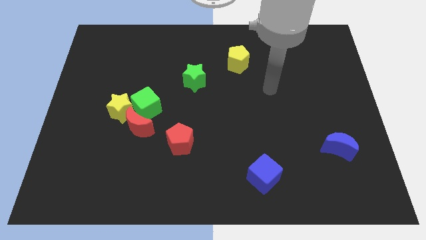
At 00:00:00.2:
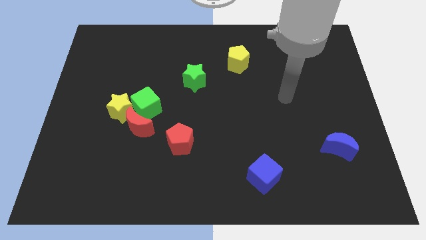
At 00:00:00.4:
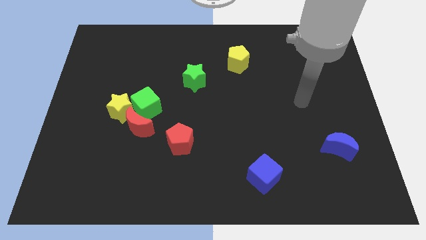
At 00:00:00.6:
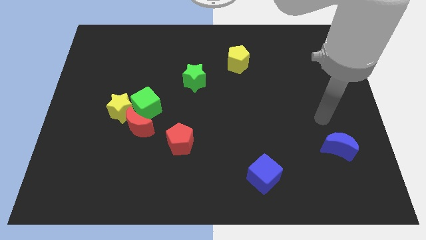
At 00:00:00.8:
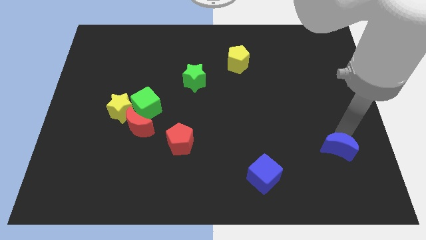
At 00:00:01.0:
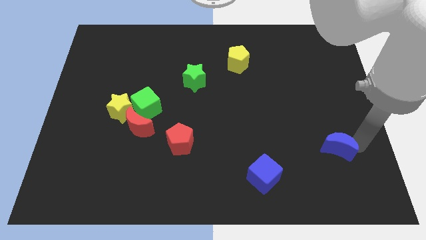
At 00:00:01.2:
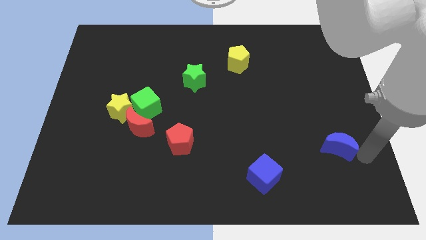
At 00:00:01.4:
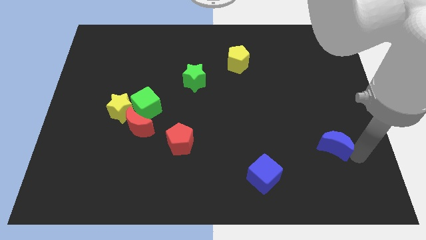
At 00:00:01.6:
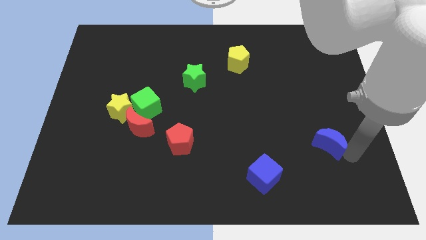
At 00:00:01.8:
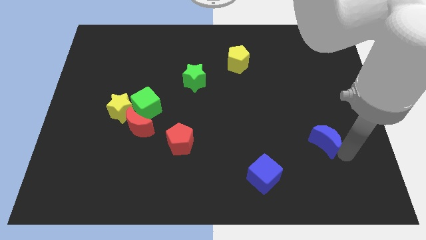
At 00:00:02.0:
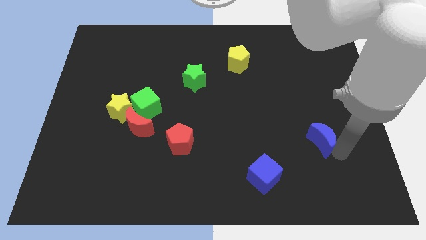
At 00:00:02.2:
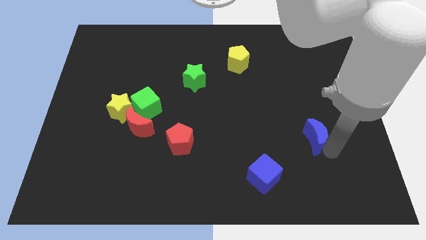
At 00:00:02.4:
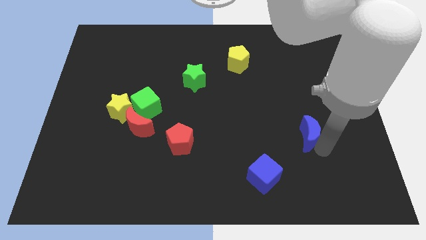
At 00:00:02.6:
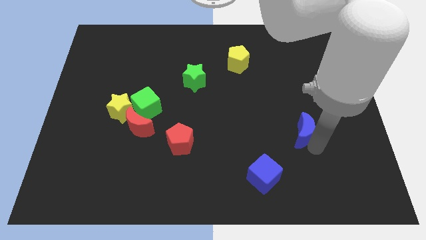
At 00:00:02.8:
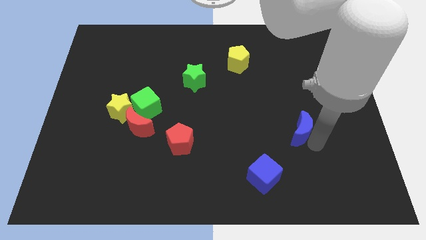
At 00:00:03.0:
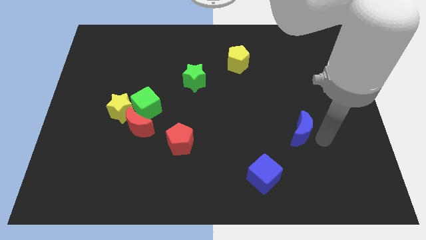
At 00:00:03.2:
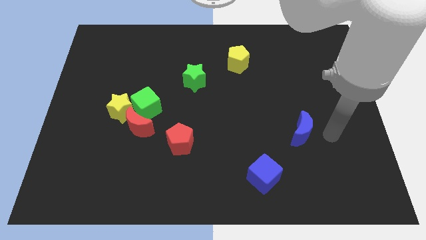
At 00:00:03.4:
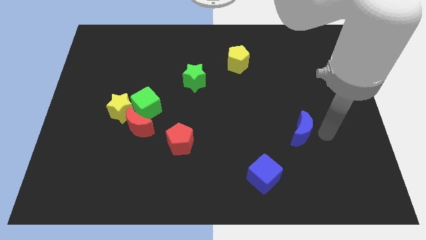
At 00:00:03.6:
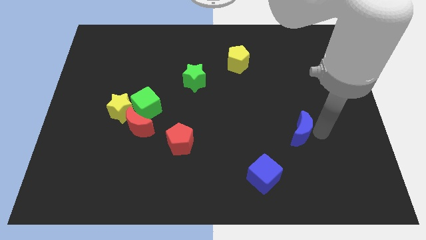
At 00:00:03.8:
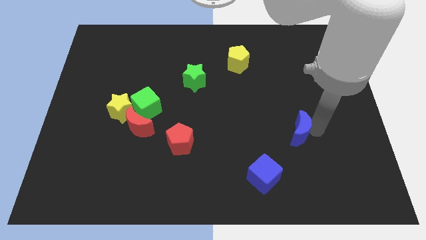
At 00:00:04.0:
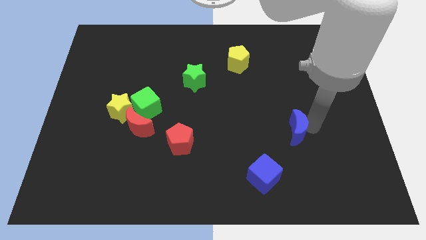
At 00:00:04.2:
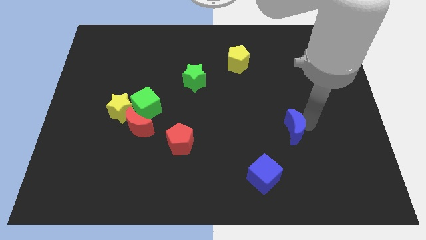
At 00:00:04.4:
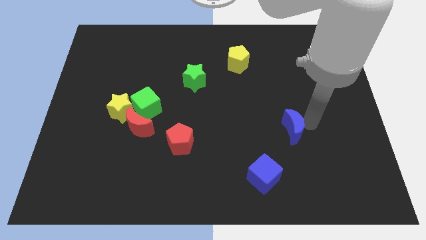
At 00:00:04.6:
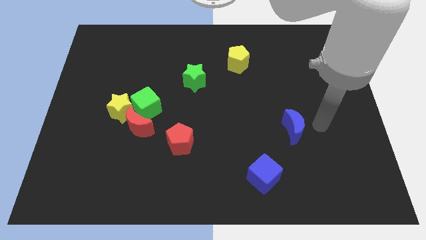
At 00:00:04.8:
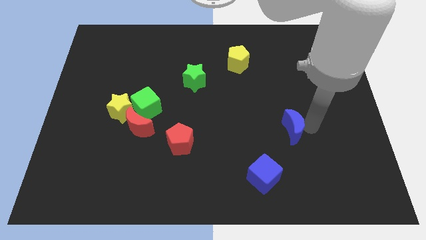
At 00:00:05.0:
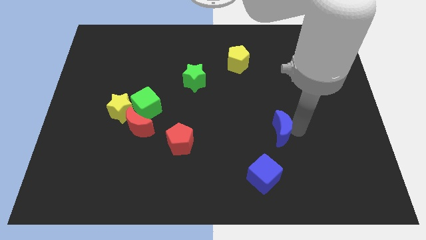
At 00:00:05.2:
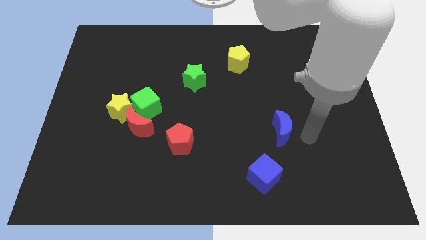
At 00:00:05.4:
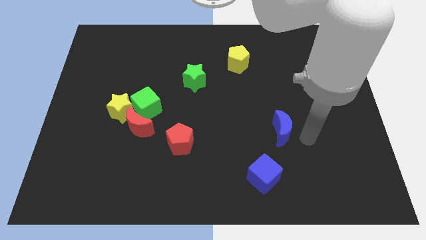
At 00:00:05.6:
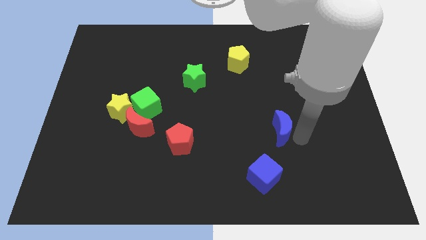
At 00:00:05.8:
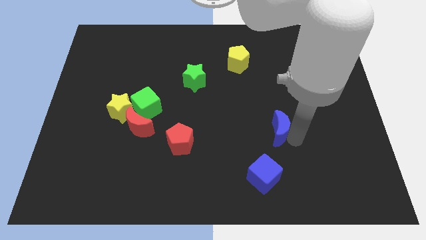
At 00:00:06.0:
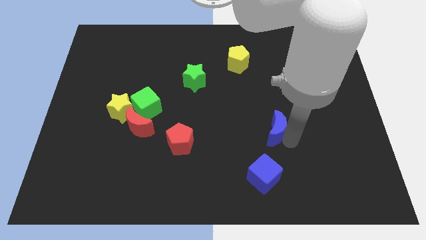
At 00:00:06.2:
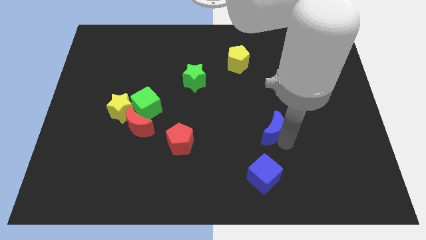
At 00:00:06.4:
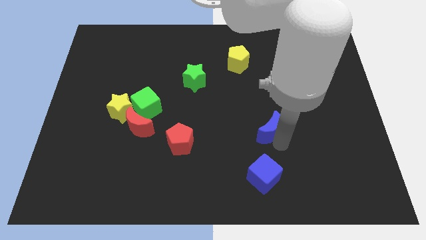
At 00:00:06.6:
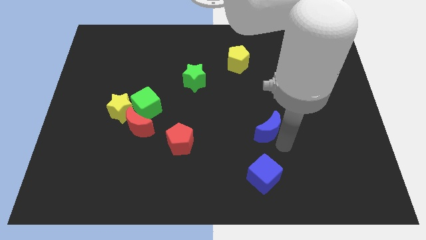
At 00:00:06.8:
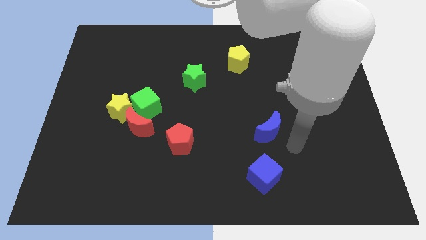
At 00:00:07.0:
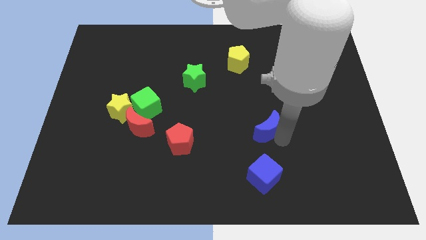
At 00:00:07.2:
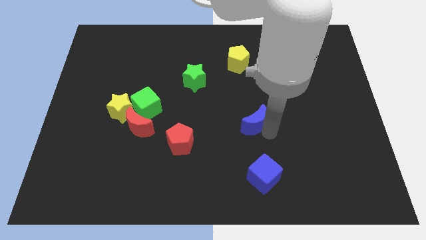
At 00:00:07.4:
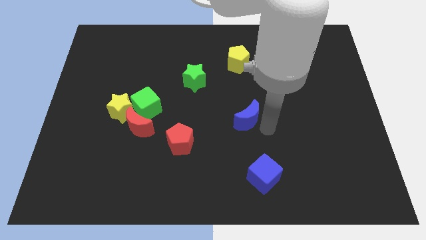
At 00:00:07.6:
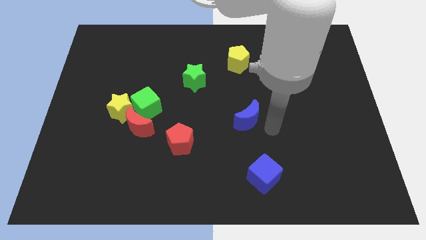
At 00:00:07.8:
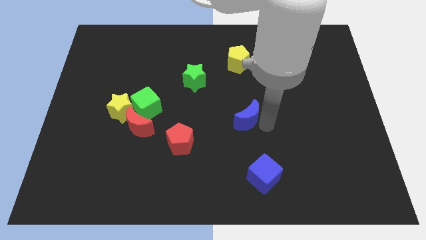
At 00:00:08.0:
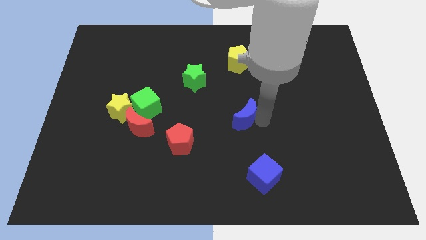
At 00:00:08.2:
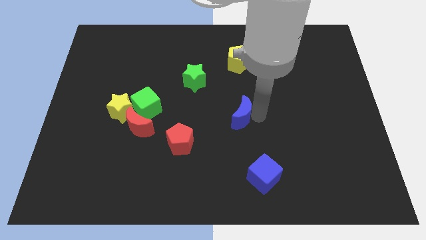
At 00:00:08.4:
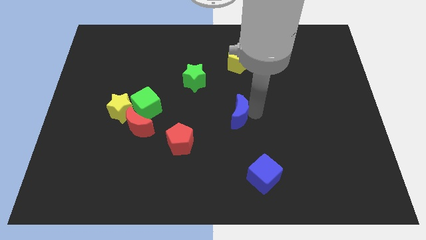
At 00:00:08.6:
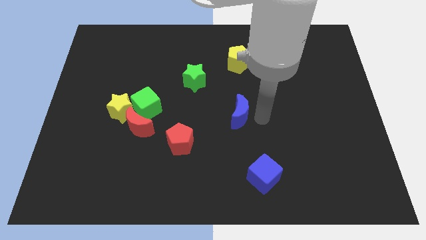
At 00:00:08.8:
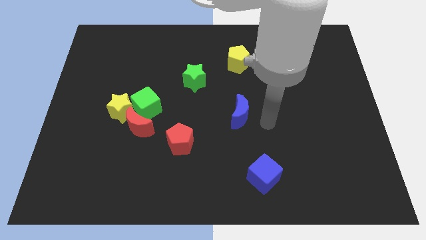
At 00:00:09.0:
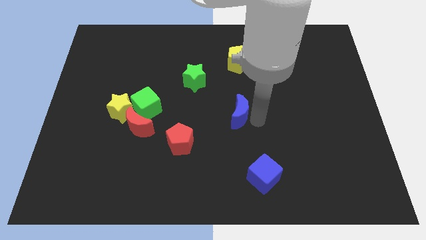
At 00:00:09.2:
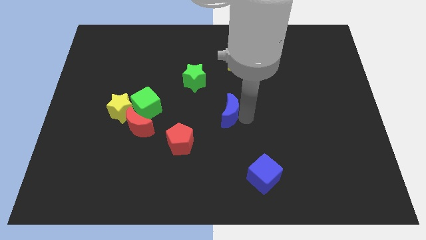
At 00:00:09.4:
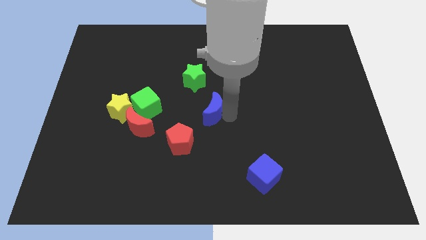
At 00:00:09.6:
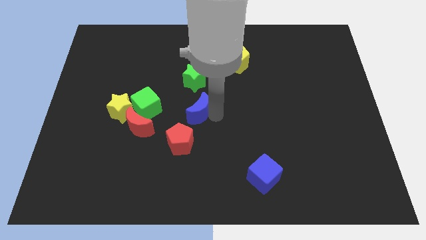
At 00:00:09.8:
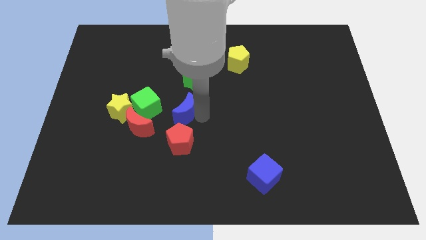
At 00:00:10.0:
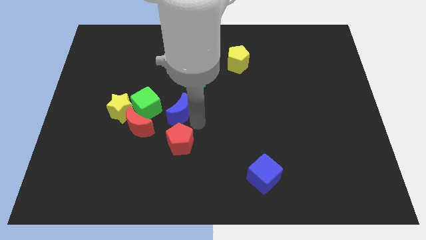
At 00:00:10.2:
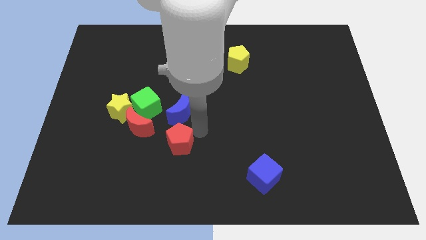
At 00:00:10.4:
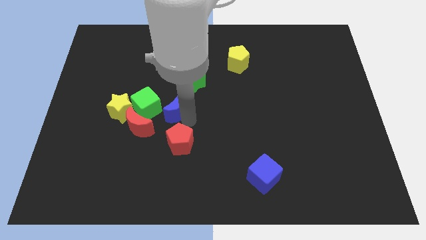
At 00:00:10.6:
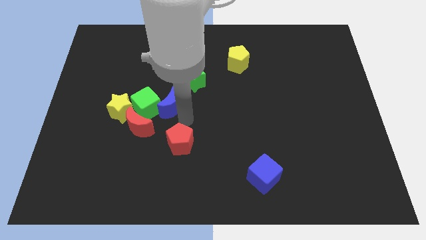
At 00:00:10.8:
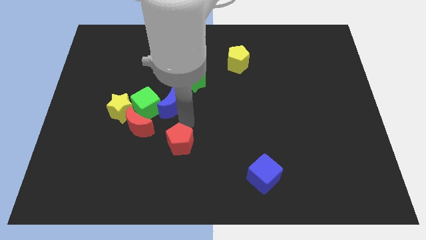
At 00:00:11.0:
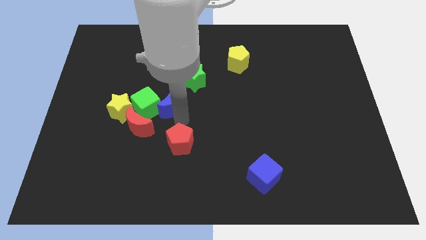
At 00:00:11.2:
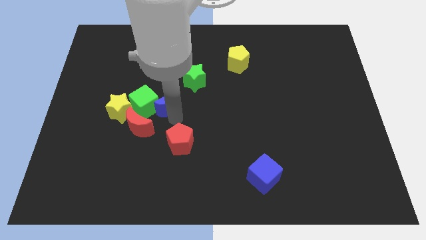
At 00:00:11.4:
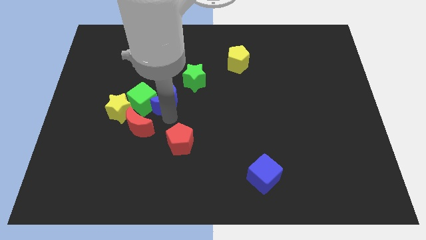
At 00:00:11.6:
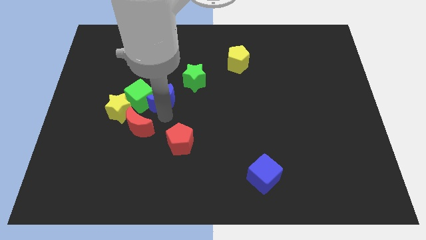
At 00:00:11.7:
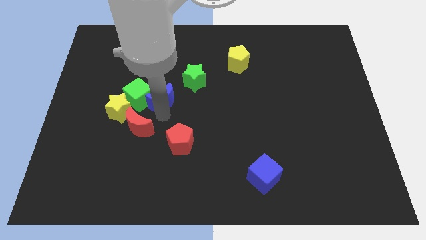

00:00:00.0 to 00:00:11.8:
push the blue moon above the red moon

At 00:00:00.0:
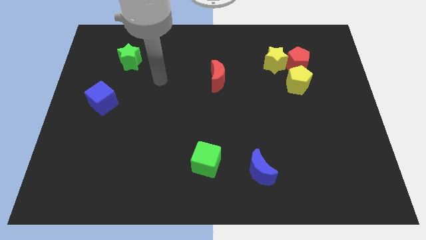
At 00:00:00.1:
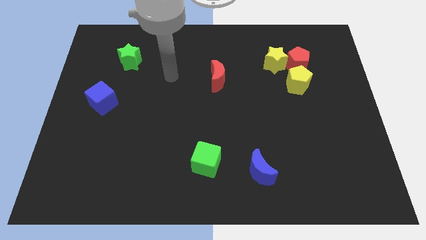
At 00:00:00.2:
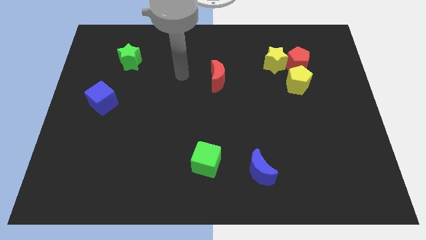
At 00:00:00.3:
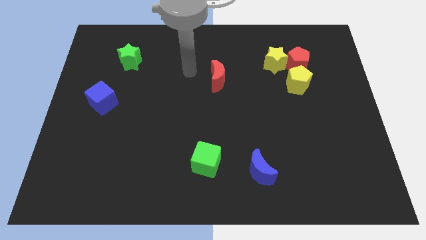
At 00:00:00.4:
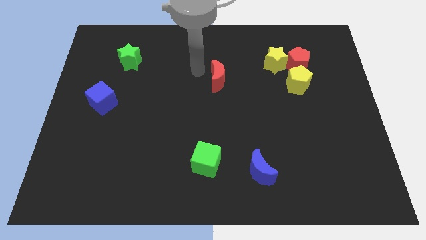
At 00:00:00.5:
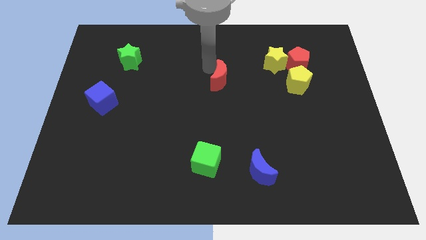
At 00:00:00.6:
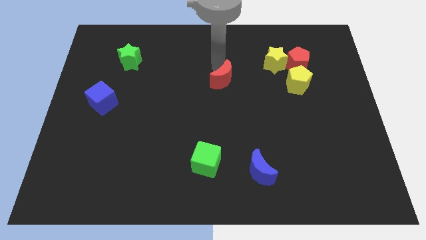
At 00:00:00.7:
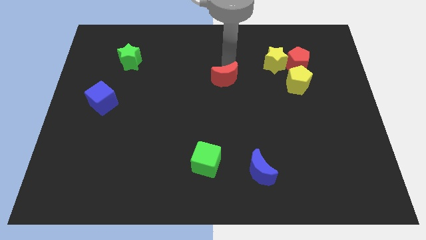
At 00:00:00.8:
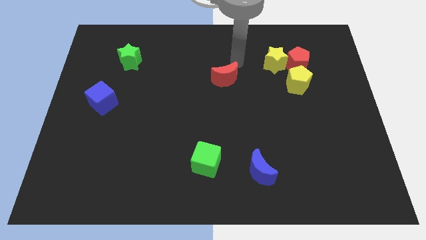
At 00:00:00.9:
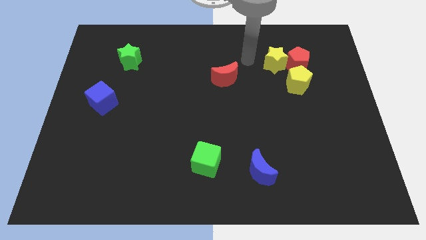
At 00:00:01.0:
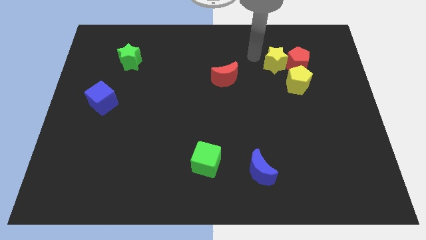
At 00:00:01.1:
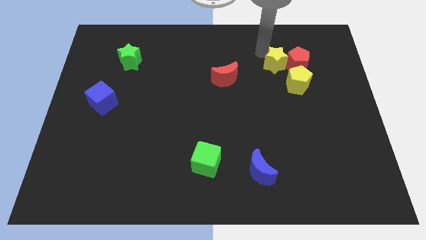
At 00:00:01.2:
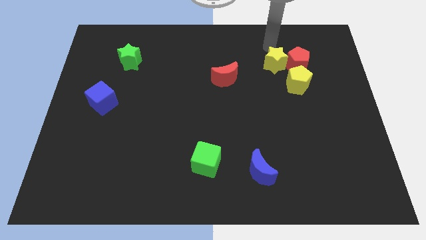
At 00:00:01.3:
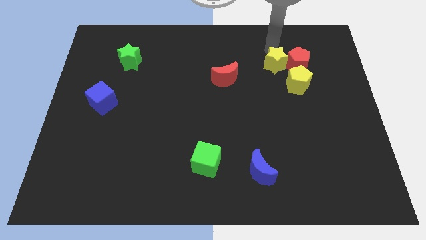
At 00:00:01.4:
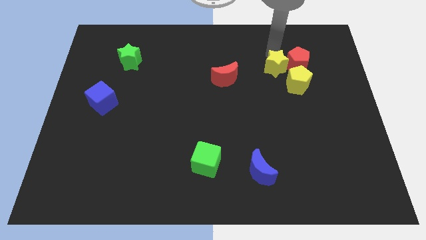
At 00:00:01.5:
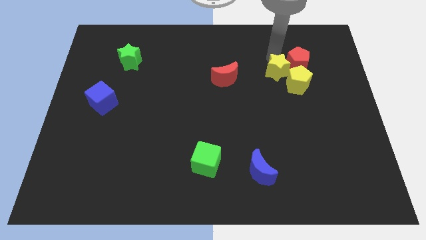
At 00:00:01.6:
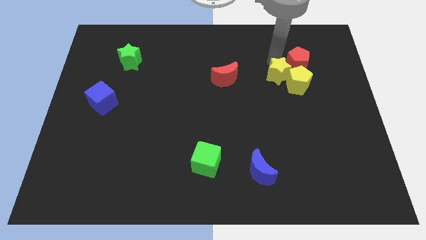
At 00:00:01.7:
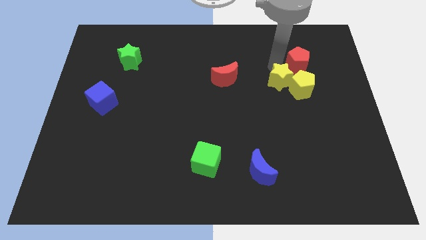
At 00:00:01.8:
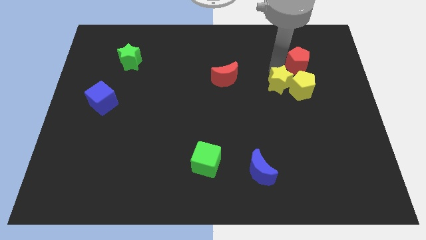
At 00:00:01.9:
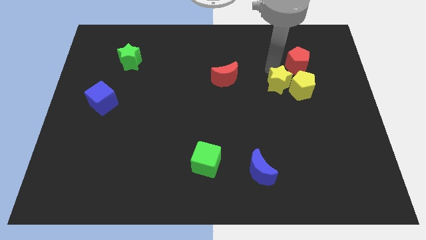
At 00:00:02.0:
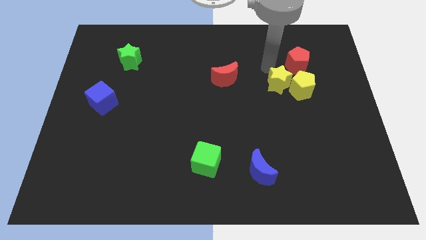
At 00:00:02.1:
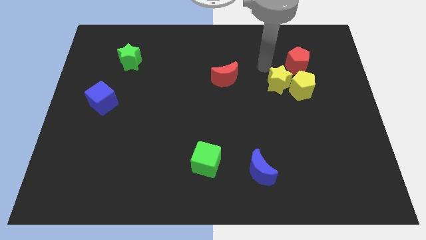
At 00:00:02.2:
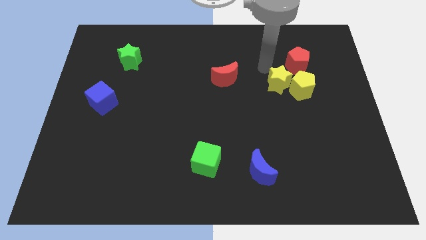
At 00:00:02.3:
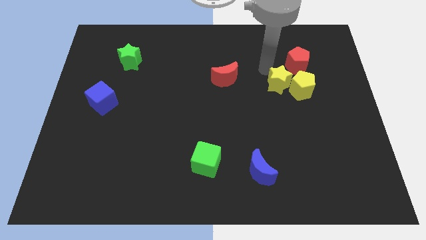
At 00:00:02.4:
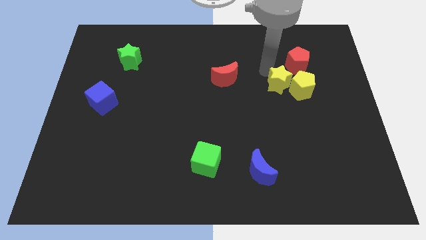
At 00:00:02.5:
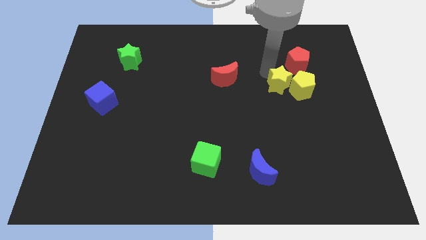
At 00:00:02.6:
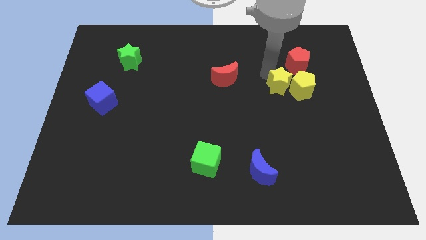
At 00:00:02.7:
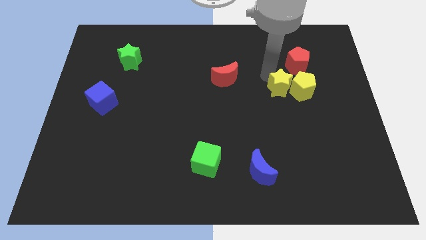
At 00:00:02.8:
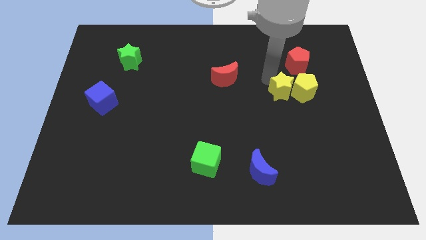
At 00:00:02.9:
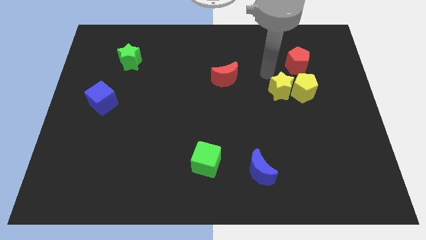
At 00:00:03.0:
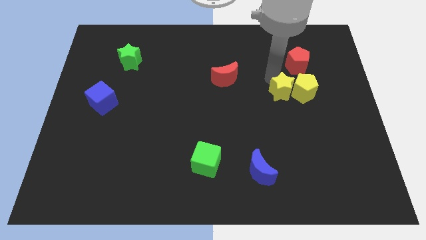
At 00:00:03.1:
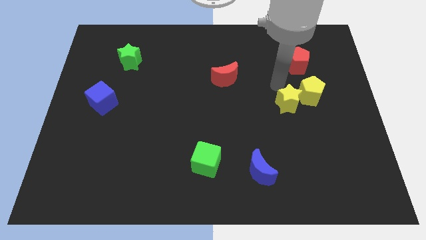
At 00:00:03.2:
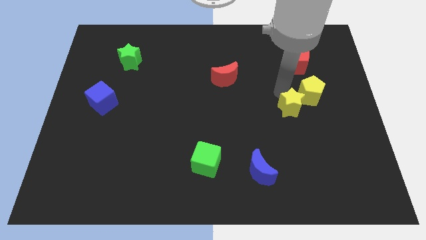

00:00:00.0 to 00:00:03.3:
push the yellow star to the bottom of the yellow pentagon
